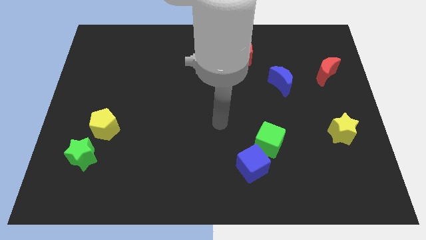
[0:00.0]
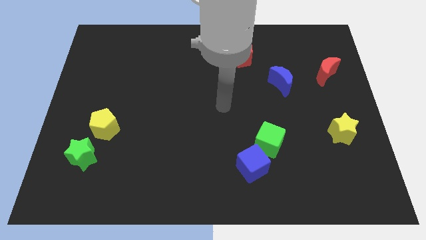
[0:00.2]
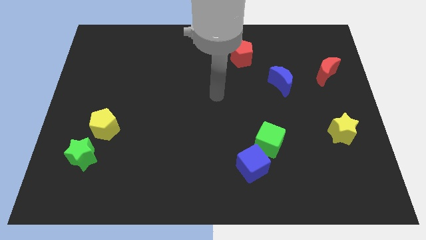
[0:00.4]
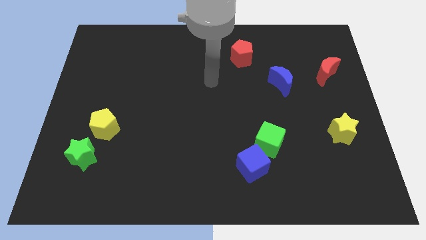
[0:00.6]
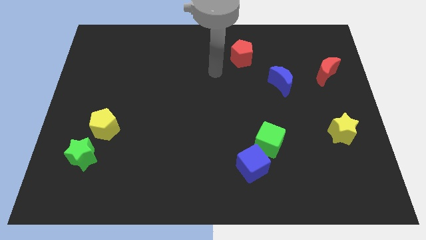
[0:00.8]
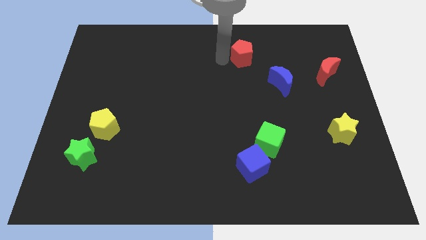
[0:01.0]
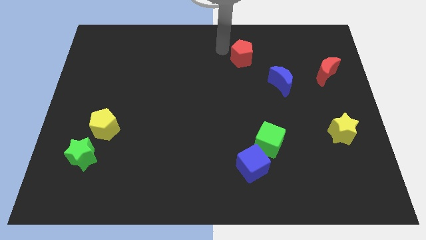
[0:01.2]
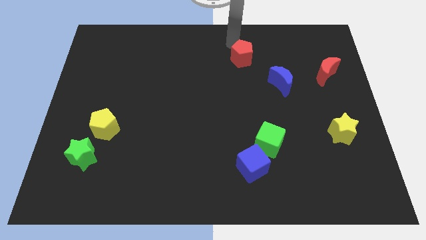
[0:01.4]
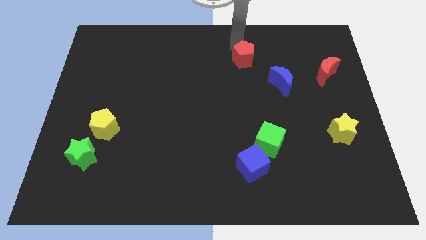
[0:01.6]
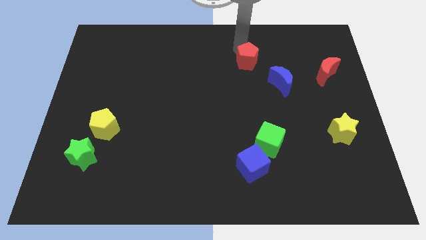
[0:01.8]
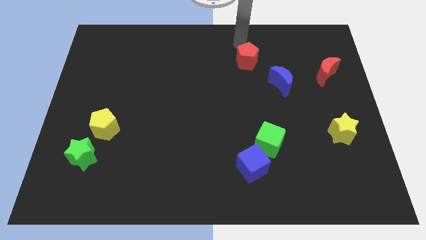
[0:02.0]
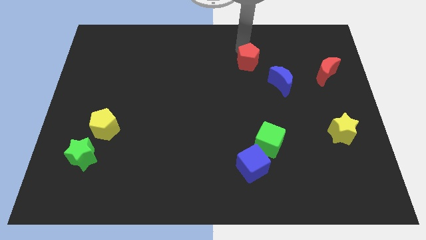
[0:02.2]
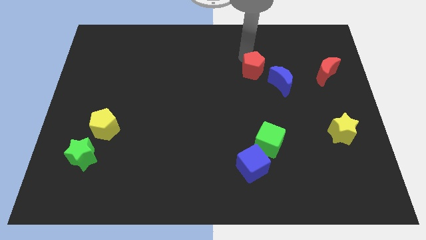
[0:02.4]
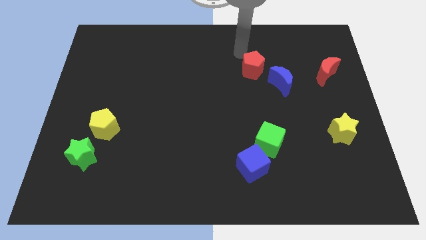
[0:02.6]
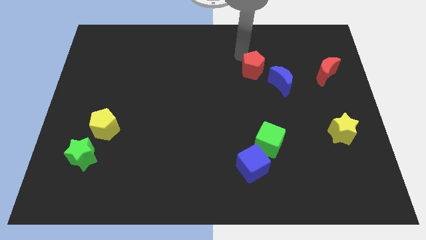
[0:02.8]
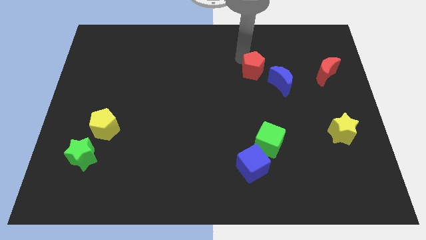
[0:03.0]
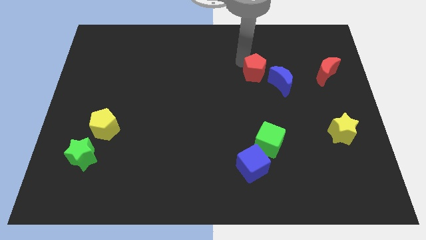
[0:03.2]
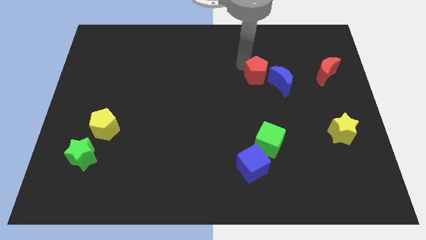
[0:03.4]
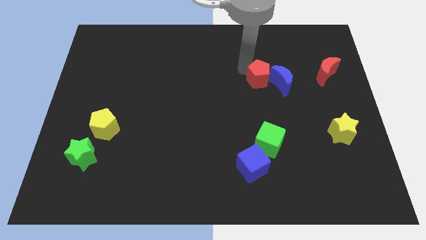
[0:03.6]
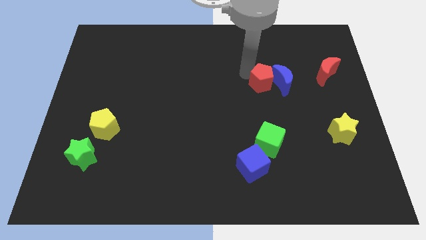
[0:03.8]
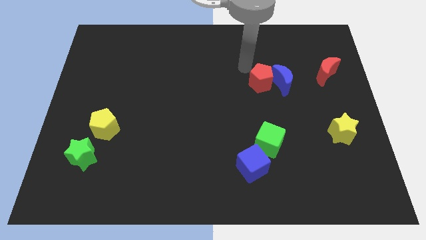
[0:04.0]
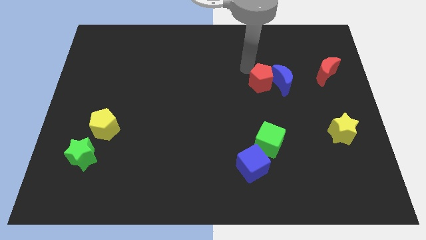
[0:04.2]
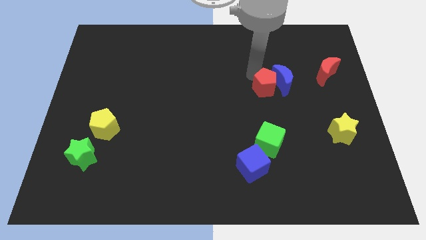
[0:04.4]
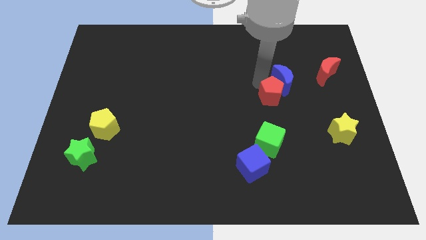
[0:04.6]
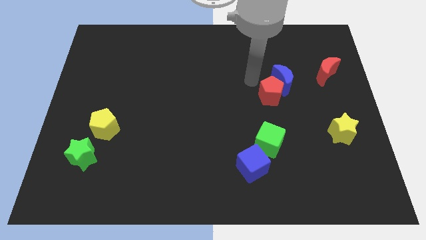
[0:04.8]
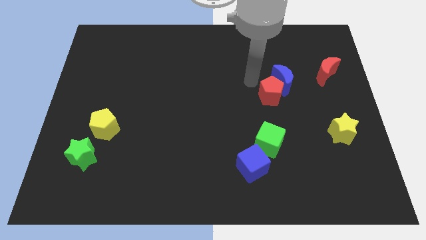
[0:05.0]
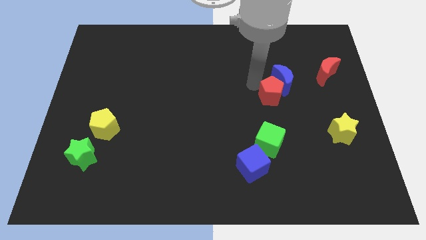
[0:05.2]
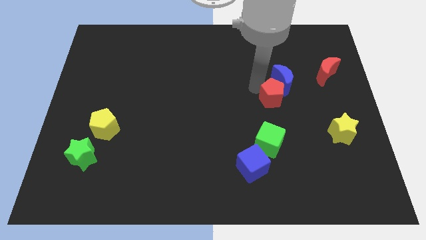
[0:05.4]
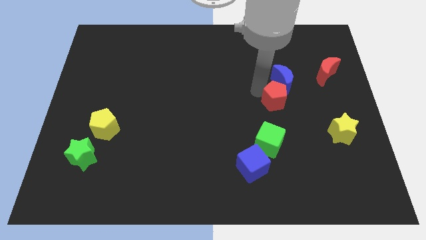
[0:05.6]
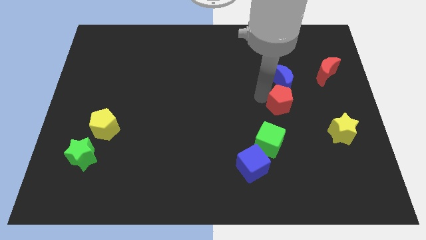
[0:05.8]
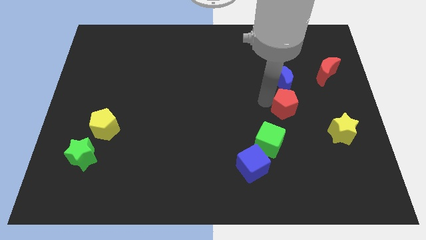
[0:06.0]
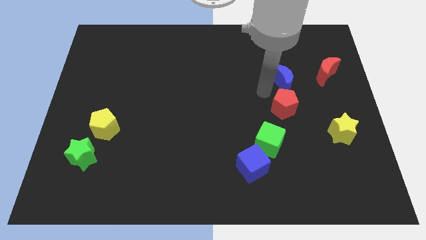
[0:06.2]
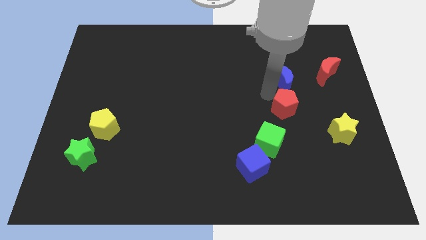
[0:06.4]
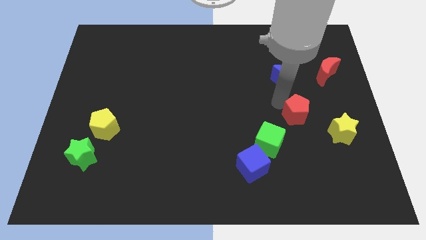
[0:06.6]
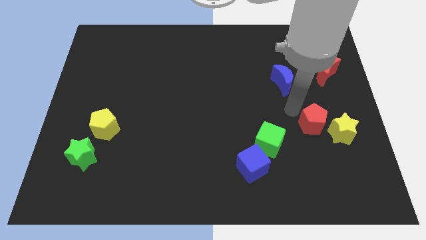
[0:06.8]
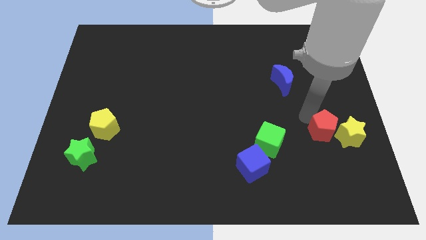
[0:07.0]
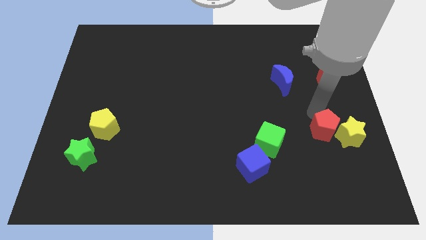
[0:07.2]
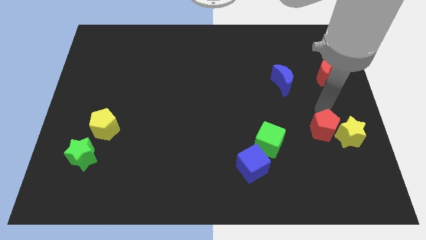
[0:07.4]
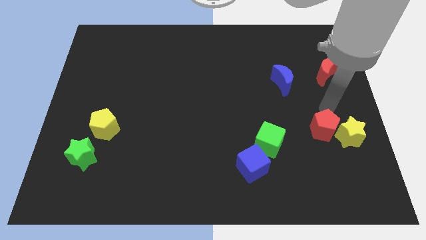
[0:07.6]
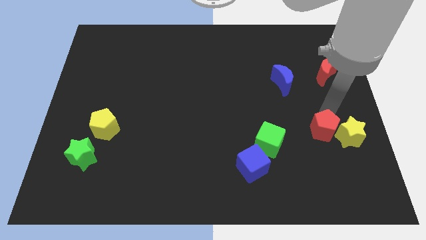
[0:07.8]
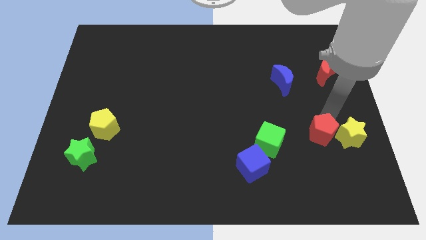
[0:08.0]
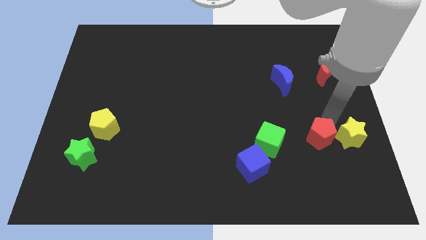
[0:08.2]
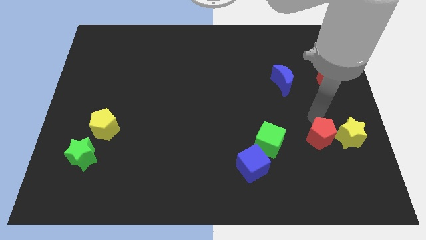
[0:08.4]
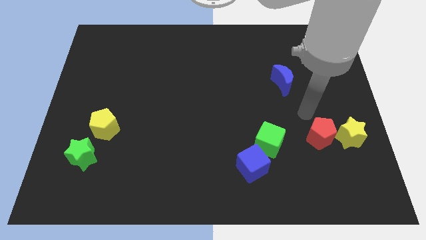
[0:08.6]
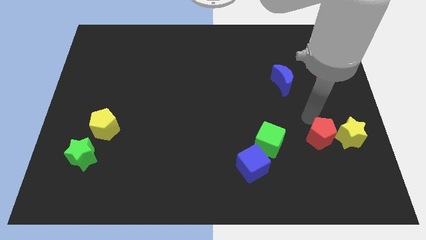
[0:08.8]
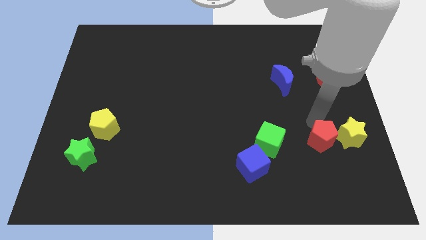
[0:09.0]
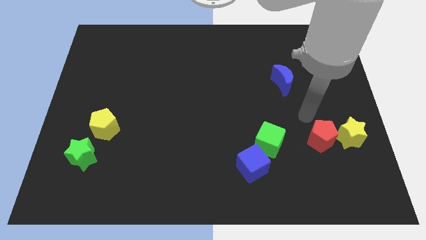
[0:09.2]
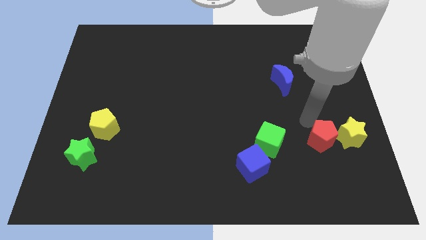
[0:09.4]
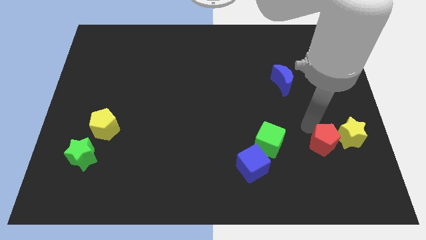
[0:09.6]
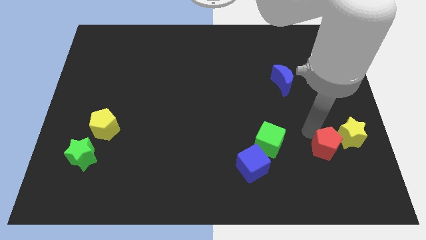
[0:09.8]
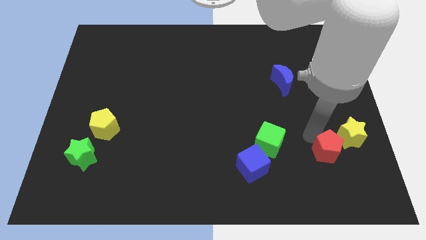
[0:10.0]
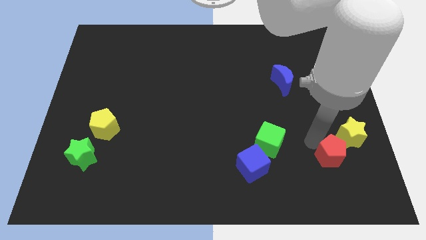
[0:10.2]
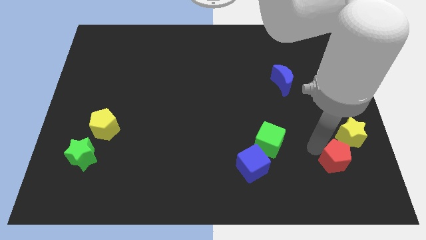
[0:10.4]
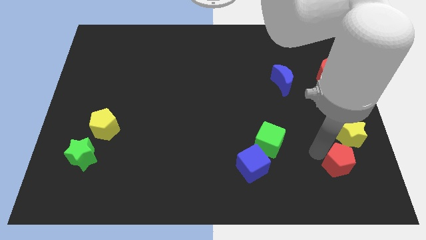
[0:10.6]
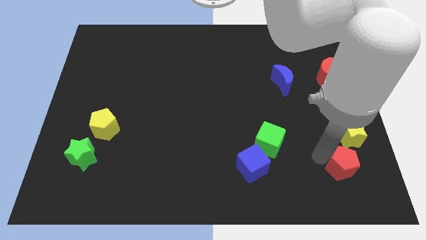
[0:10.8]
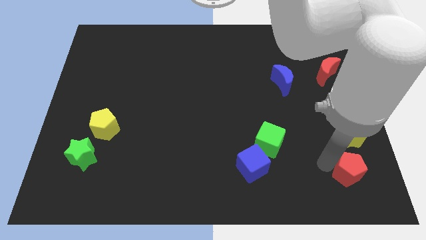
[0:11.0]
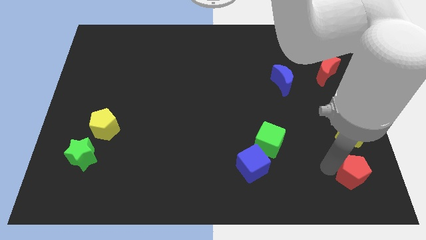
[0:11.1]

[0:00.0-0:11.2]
move the red pentagon to the lower right corner
